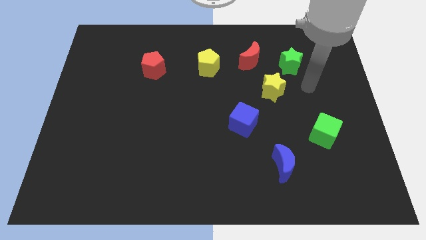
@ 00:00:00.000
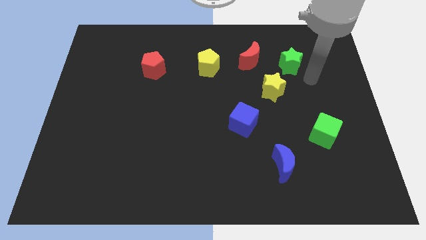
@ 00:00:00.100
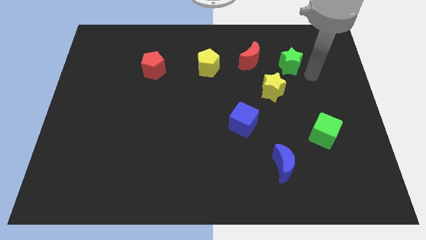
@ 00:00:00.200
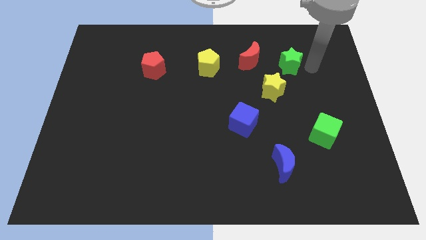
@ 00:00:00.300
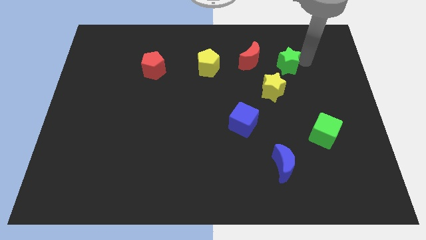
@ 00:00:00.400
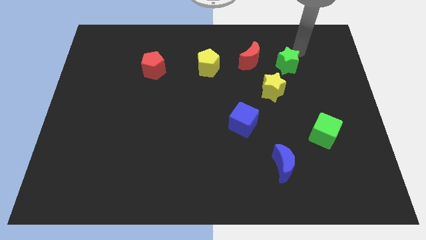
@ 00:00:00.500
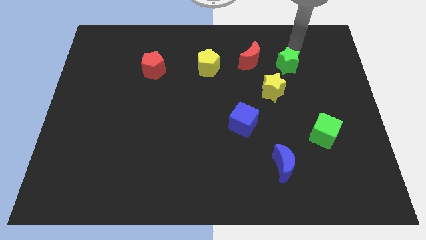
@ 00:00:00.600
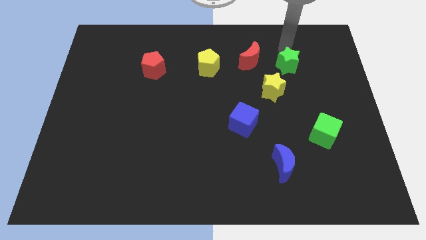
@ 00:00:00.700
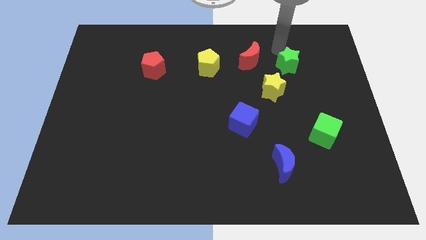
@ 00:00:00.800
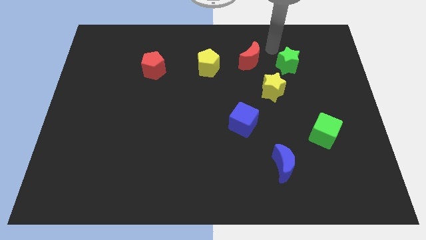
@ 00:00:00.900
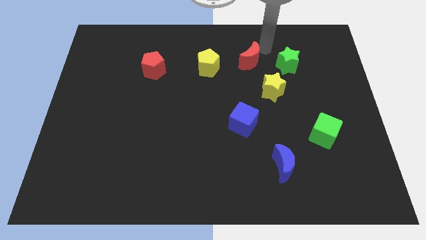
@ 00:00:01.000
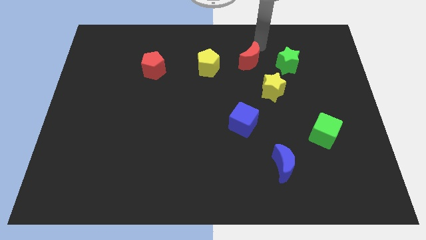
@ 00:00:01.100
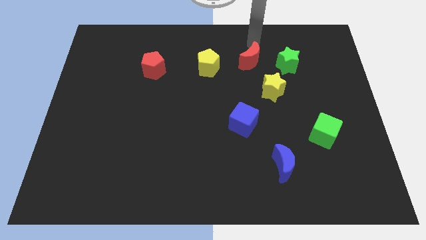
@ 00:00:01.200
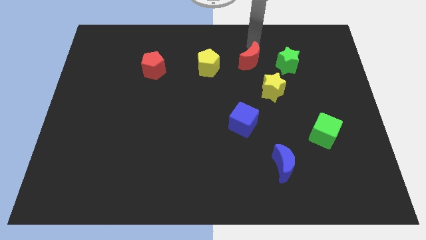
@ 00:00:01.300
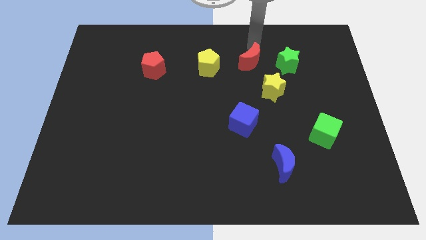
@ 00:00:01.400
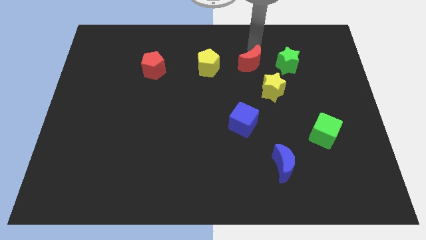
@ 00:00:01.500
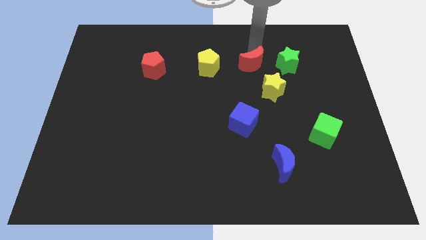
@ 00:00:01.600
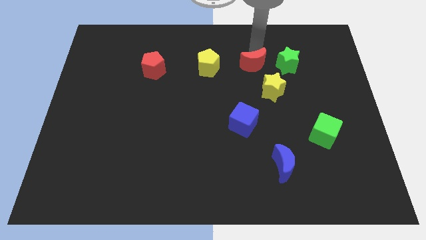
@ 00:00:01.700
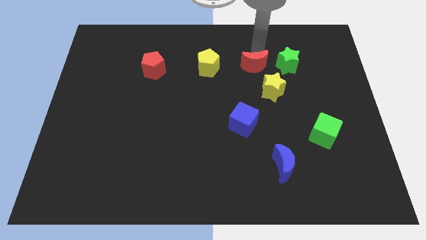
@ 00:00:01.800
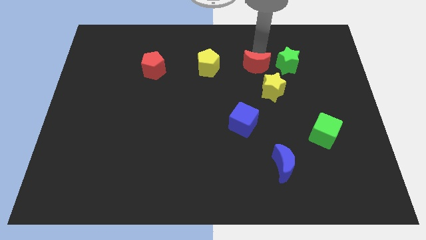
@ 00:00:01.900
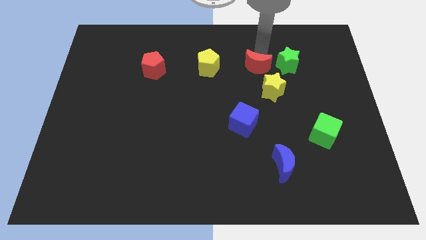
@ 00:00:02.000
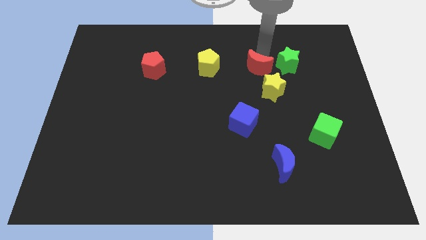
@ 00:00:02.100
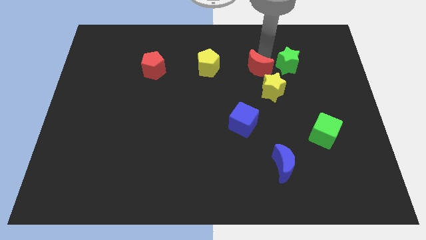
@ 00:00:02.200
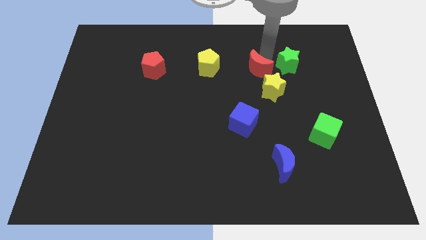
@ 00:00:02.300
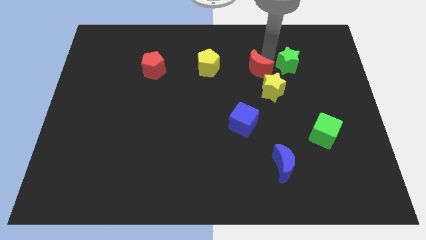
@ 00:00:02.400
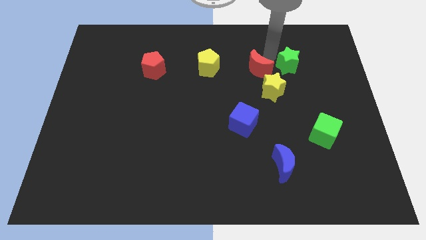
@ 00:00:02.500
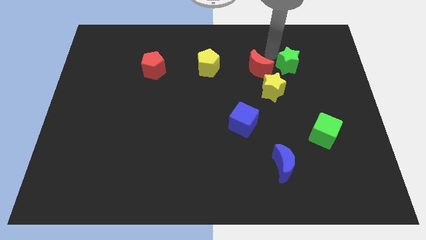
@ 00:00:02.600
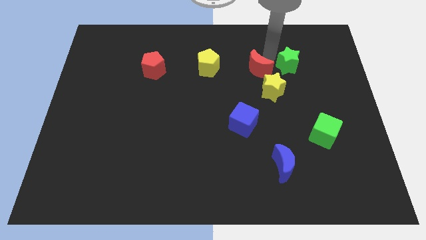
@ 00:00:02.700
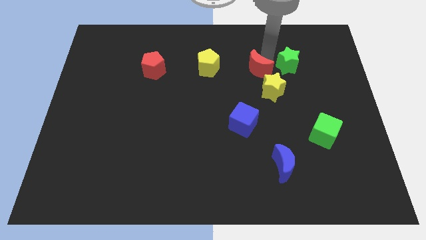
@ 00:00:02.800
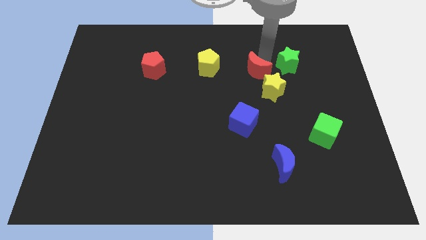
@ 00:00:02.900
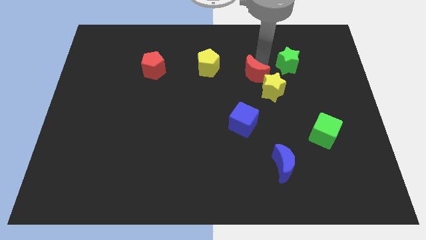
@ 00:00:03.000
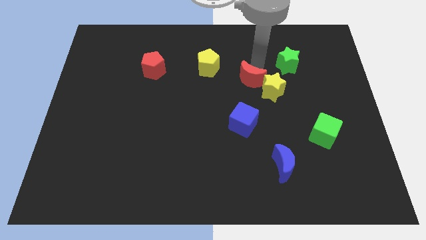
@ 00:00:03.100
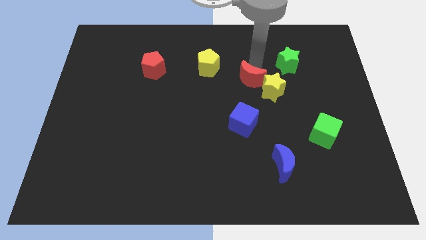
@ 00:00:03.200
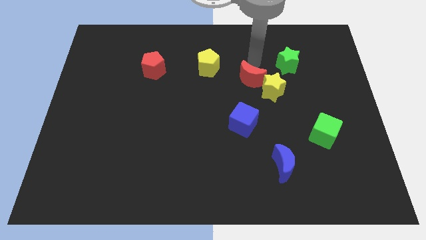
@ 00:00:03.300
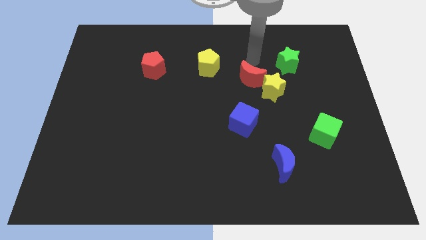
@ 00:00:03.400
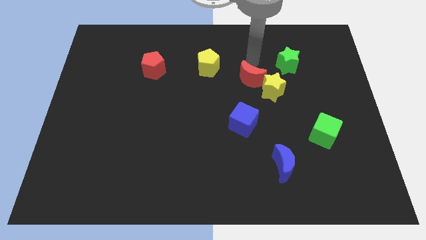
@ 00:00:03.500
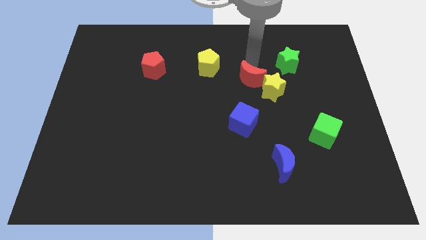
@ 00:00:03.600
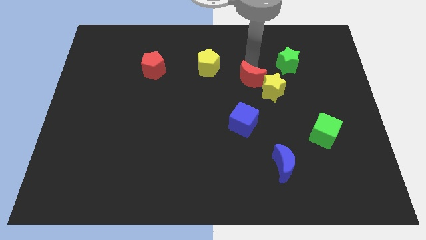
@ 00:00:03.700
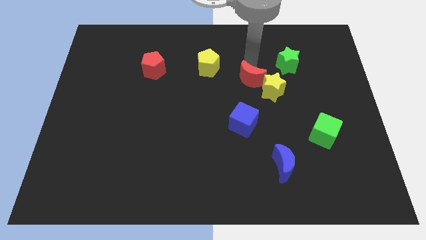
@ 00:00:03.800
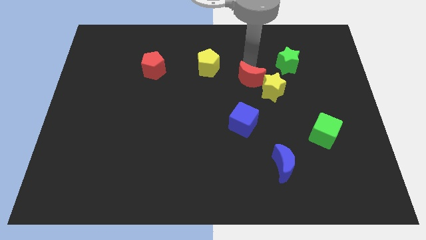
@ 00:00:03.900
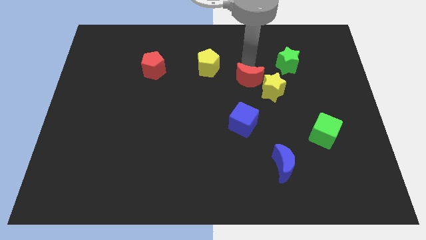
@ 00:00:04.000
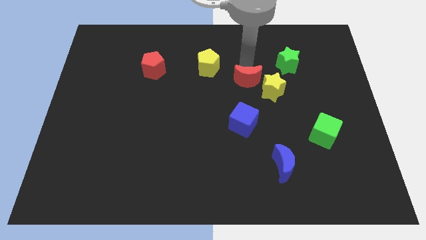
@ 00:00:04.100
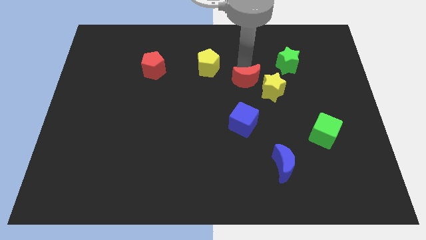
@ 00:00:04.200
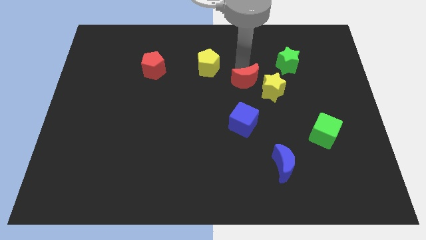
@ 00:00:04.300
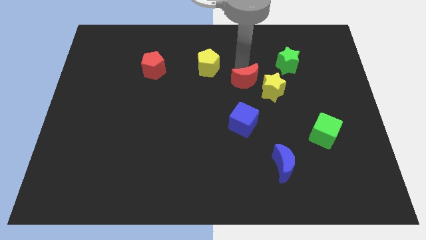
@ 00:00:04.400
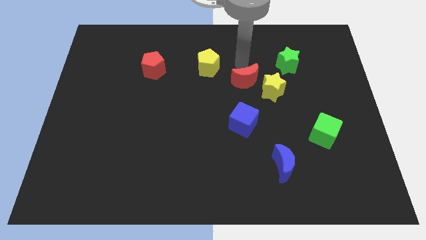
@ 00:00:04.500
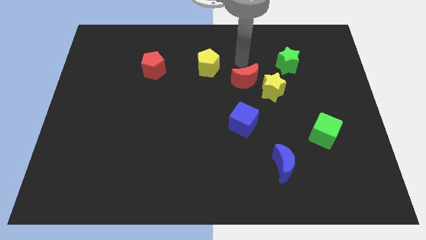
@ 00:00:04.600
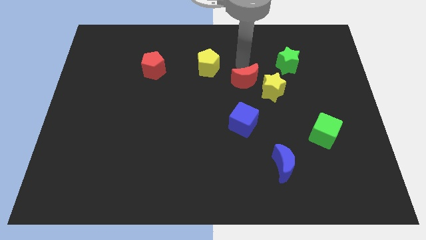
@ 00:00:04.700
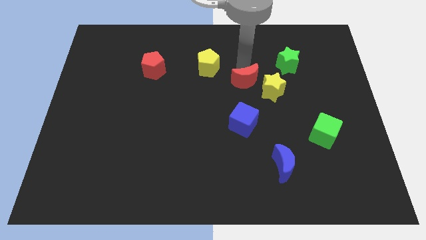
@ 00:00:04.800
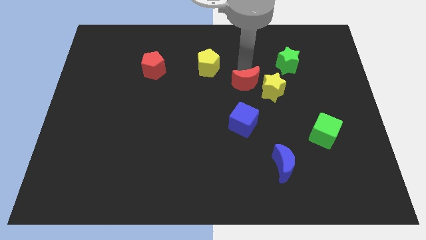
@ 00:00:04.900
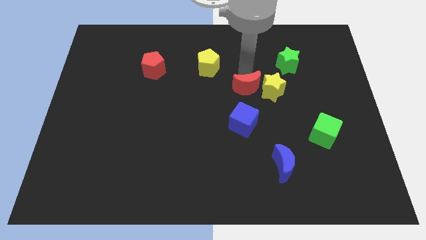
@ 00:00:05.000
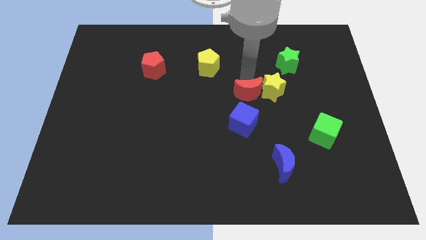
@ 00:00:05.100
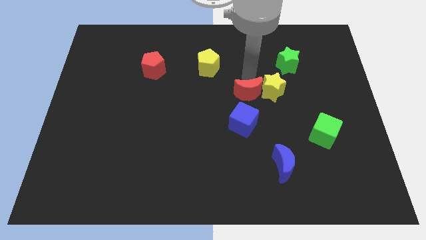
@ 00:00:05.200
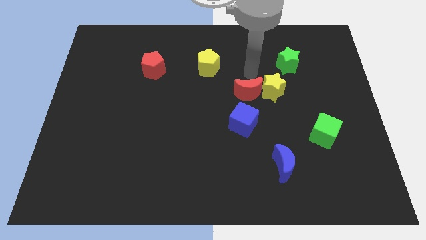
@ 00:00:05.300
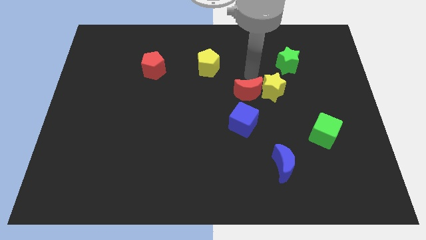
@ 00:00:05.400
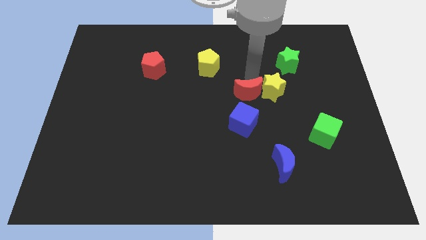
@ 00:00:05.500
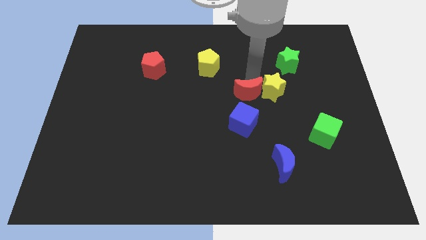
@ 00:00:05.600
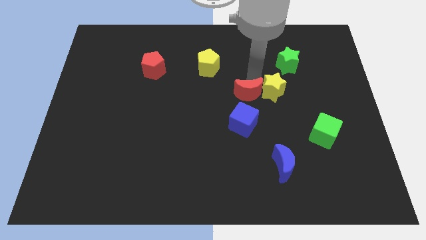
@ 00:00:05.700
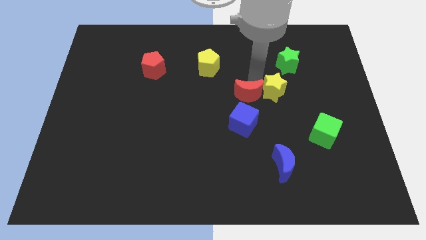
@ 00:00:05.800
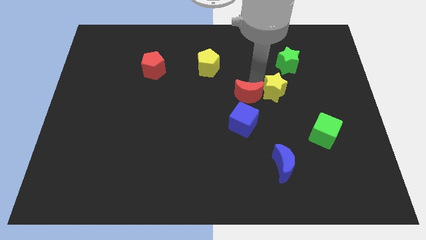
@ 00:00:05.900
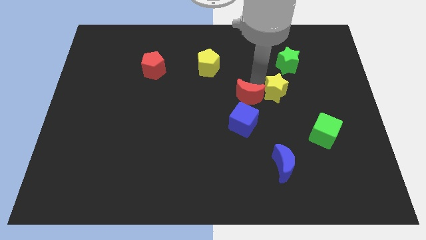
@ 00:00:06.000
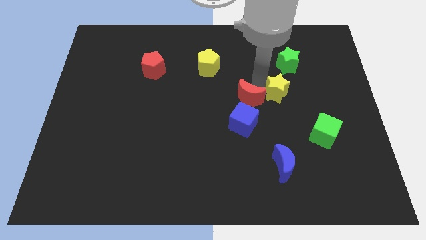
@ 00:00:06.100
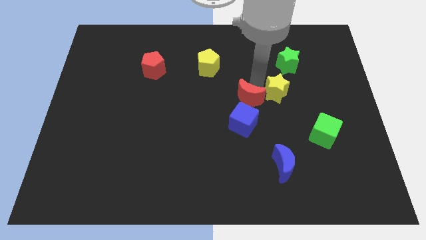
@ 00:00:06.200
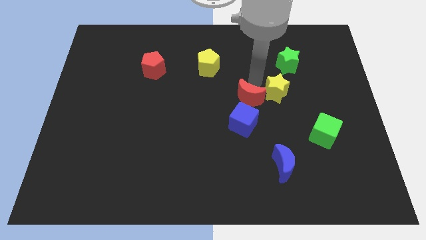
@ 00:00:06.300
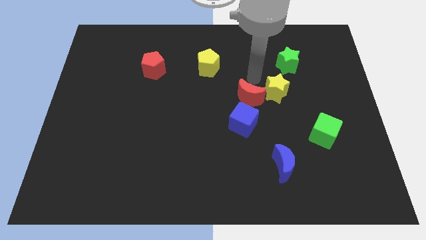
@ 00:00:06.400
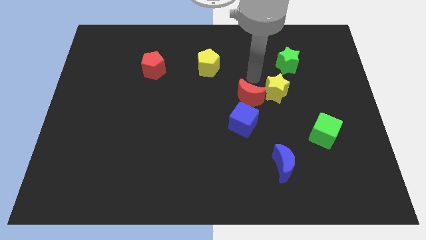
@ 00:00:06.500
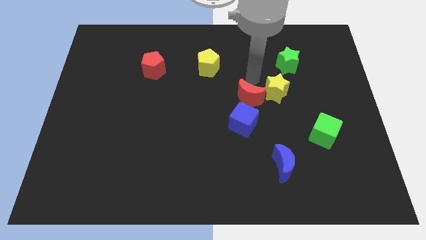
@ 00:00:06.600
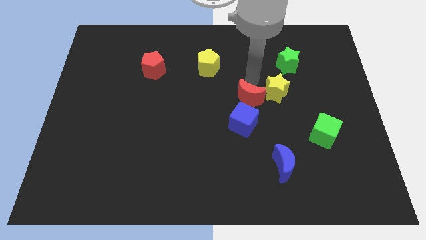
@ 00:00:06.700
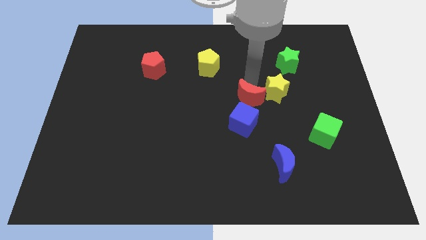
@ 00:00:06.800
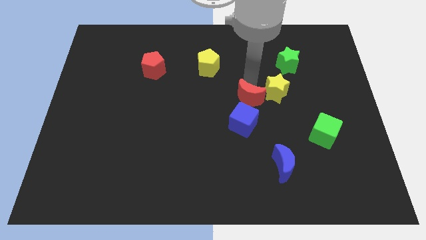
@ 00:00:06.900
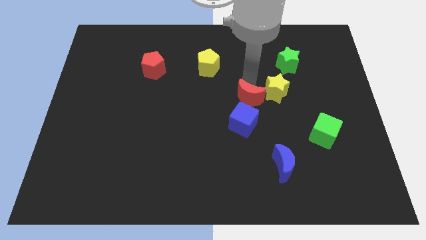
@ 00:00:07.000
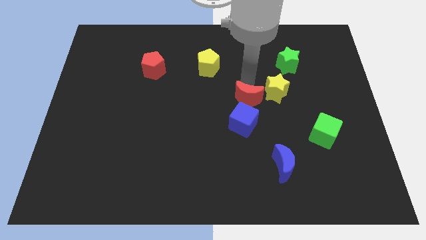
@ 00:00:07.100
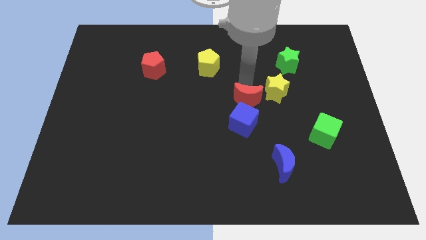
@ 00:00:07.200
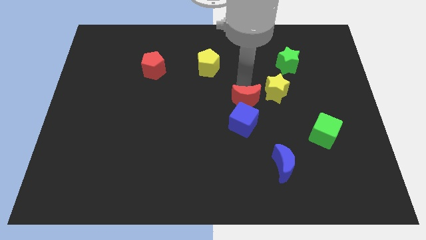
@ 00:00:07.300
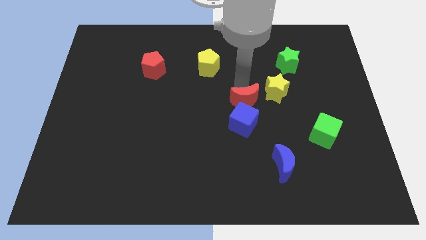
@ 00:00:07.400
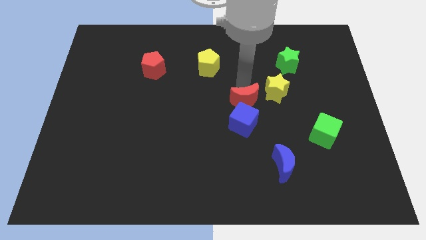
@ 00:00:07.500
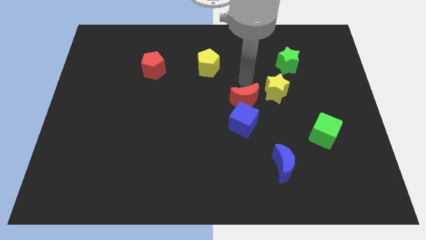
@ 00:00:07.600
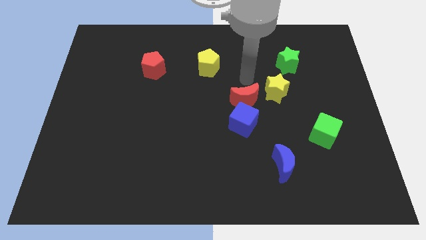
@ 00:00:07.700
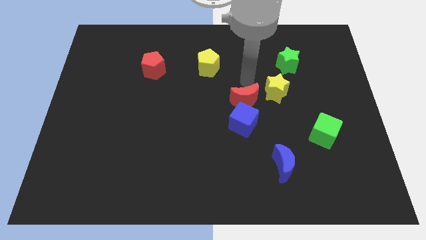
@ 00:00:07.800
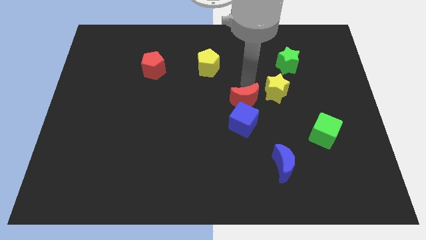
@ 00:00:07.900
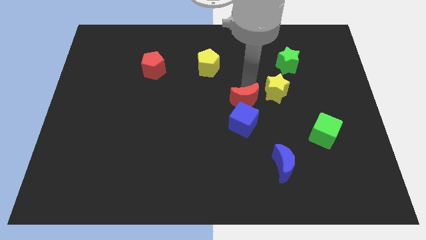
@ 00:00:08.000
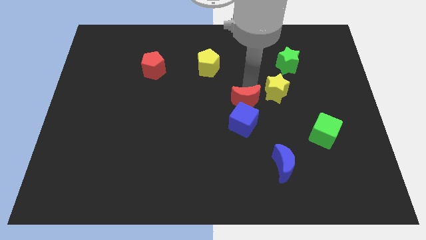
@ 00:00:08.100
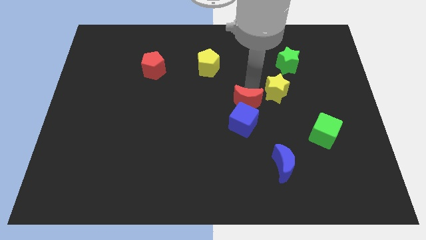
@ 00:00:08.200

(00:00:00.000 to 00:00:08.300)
push the red moon to the blue cube
